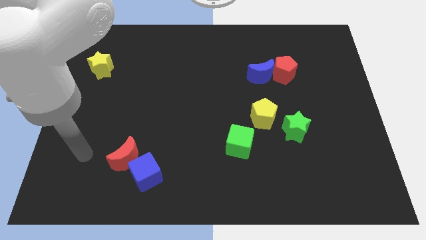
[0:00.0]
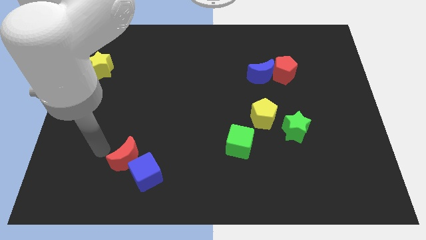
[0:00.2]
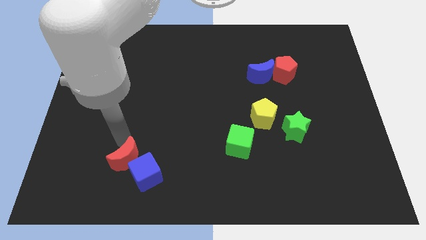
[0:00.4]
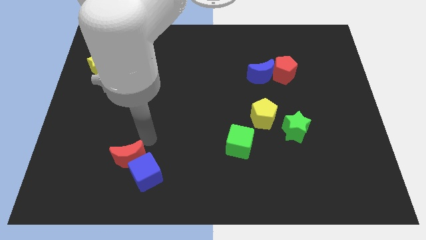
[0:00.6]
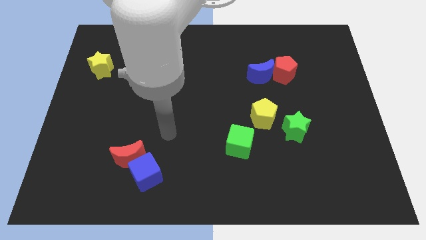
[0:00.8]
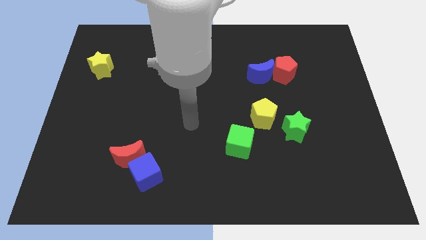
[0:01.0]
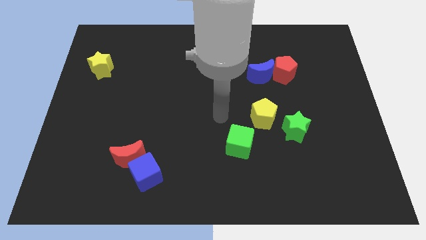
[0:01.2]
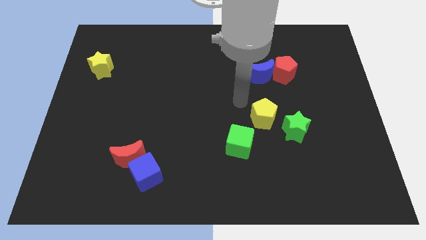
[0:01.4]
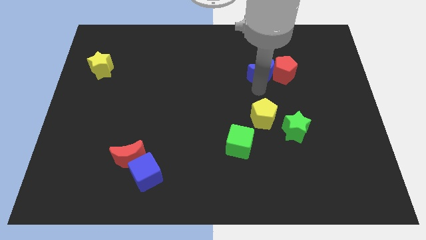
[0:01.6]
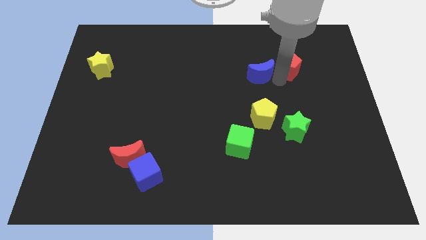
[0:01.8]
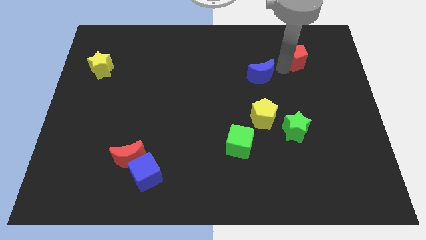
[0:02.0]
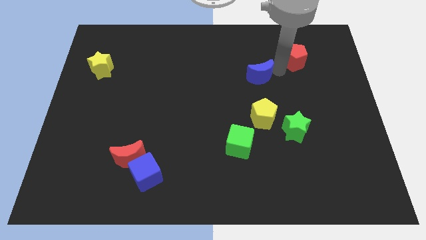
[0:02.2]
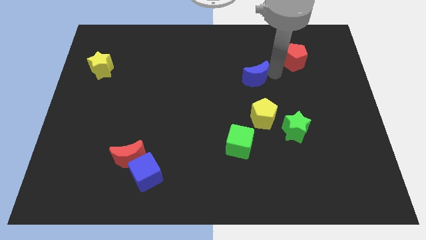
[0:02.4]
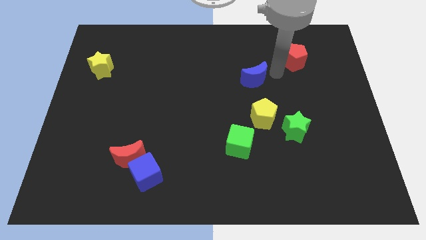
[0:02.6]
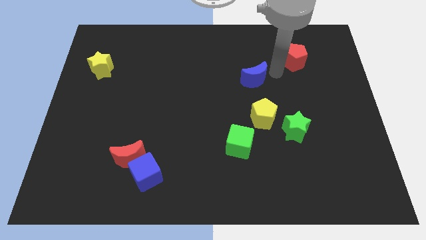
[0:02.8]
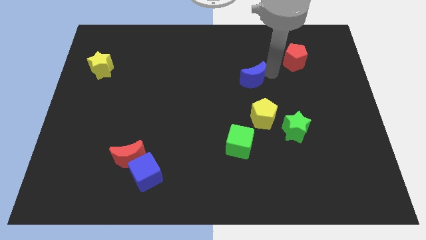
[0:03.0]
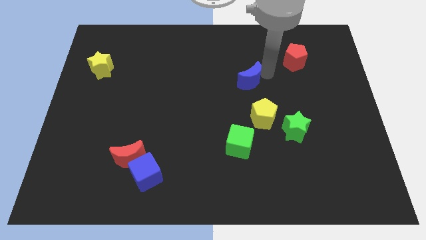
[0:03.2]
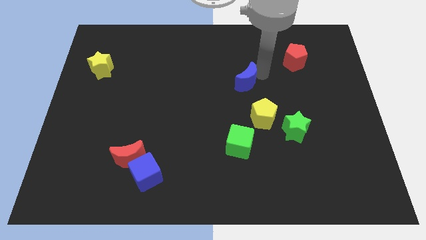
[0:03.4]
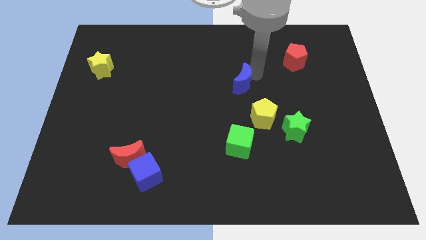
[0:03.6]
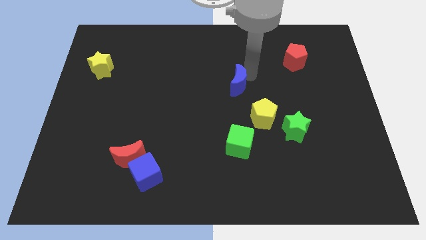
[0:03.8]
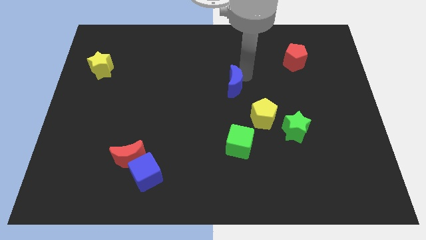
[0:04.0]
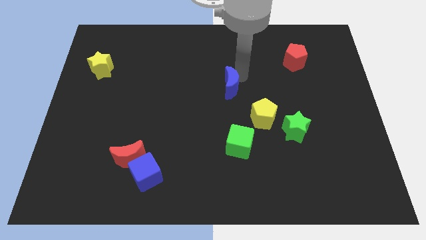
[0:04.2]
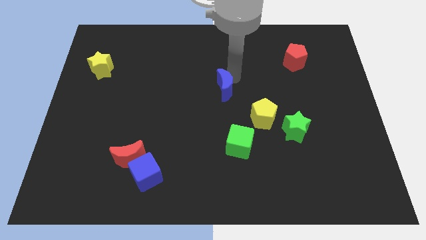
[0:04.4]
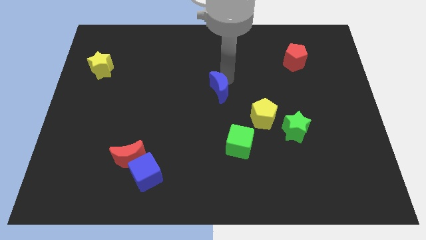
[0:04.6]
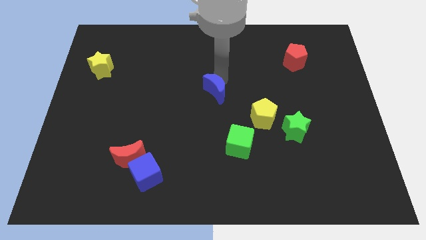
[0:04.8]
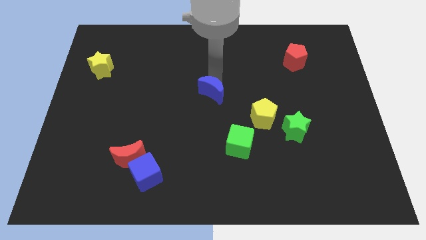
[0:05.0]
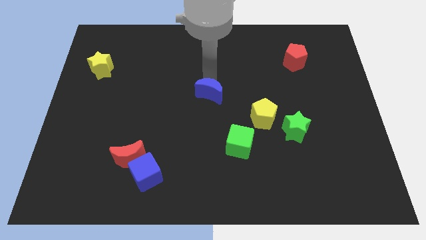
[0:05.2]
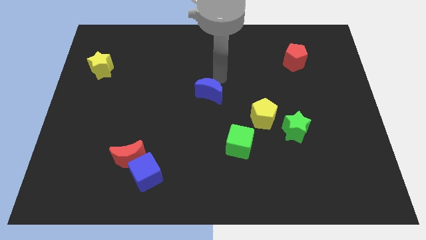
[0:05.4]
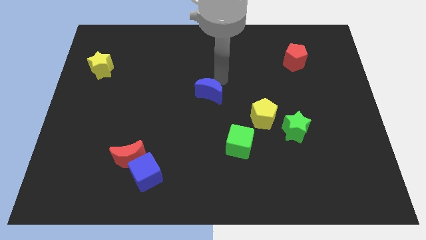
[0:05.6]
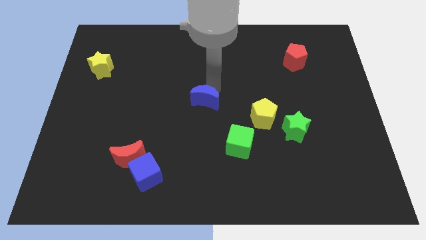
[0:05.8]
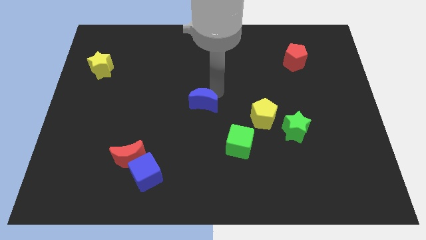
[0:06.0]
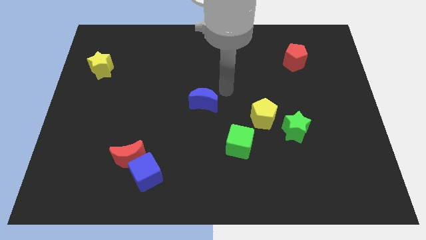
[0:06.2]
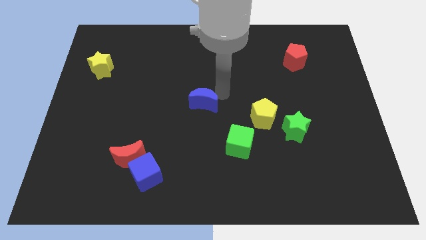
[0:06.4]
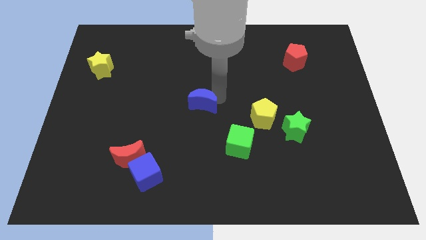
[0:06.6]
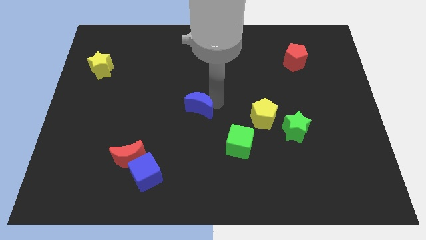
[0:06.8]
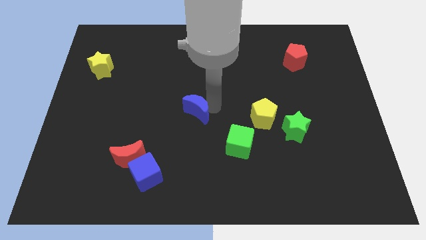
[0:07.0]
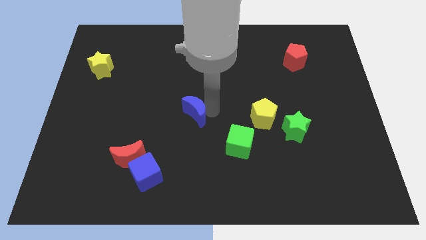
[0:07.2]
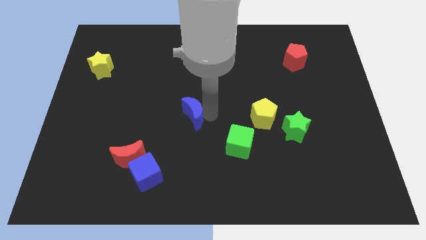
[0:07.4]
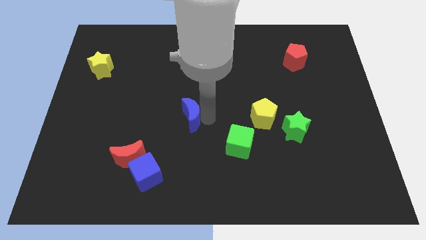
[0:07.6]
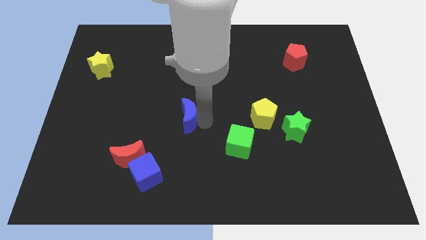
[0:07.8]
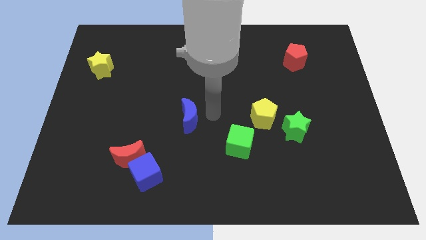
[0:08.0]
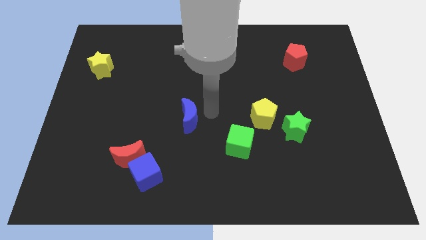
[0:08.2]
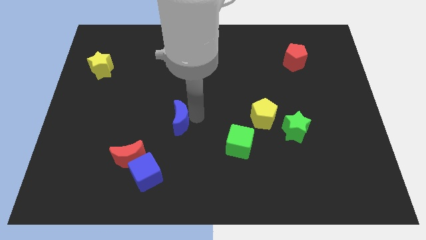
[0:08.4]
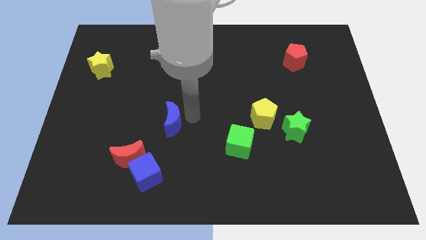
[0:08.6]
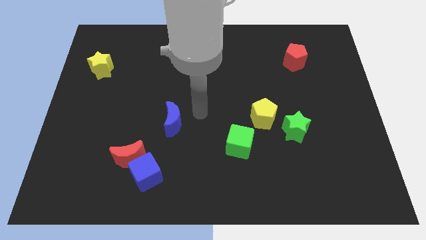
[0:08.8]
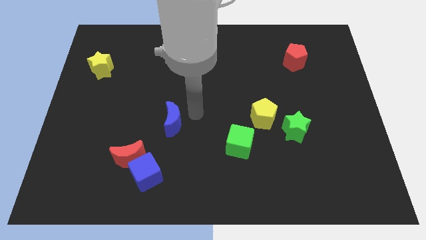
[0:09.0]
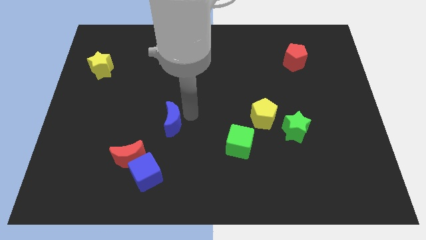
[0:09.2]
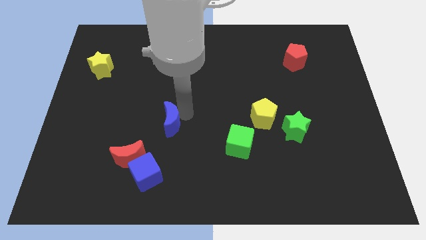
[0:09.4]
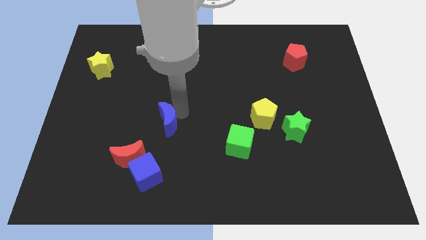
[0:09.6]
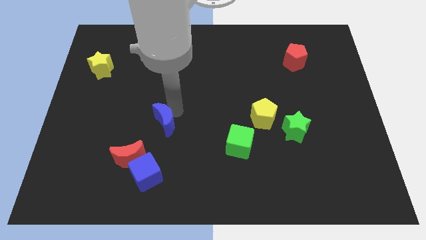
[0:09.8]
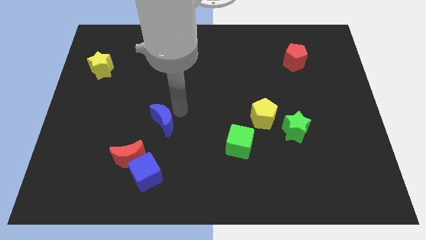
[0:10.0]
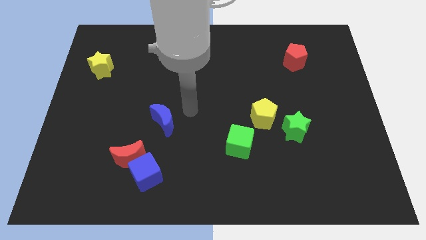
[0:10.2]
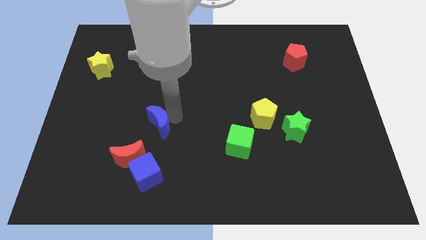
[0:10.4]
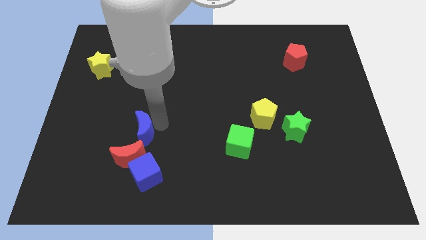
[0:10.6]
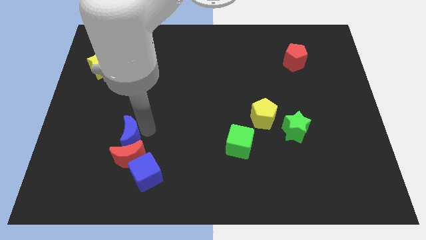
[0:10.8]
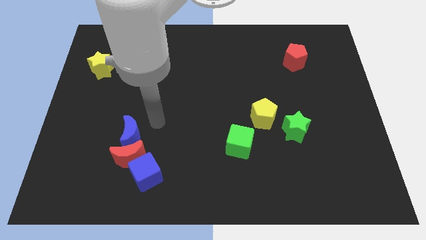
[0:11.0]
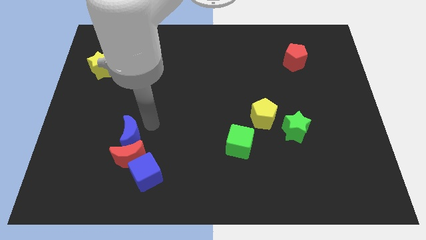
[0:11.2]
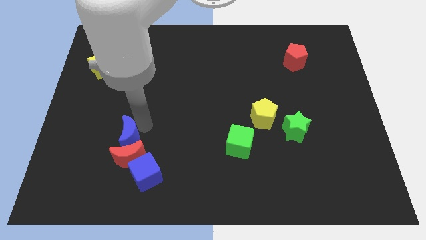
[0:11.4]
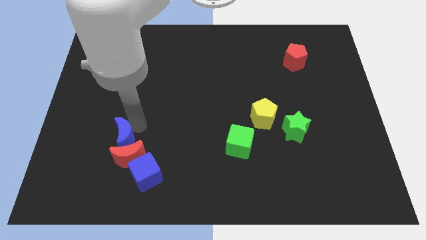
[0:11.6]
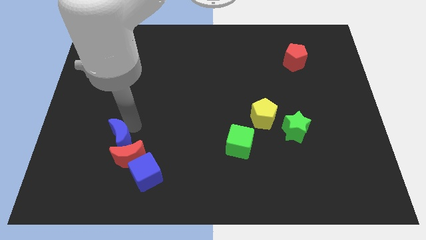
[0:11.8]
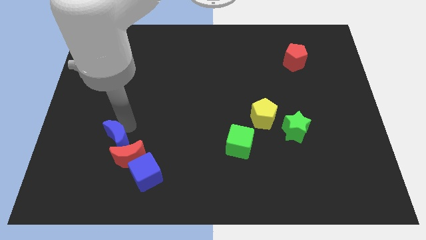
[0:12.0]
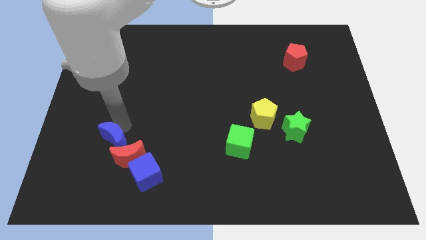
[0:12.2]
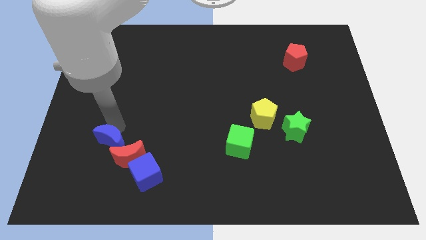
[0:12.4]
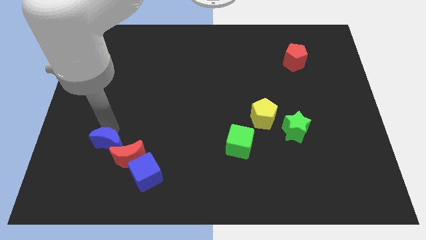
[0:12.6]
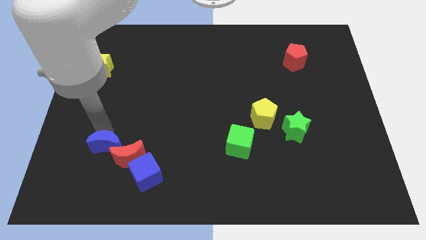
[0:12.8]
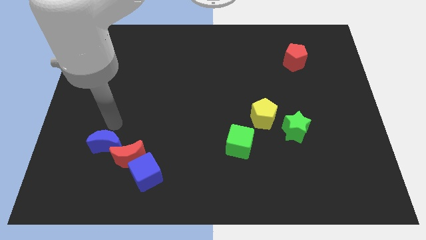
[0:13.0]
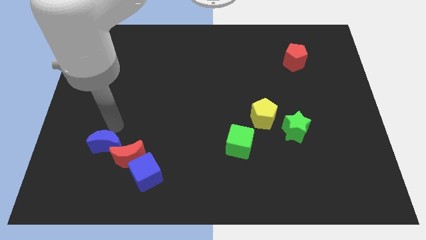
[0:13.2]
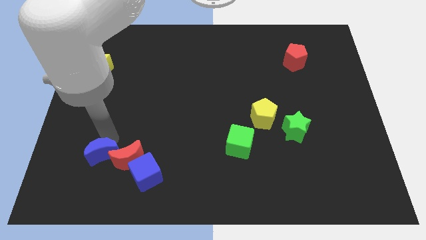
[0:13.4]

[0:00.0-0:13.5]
slide the blue moon left of the blue cube
